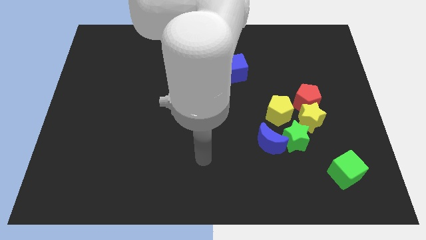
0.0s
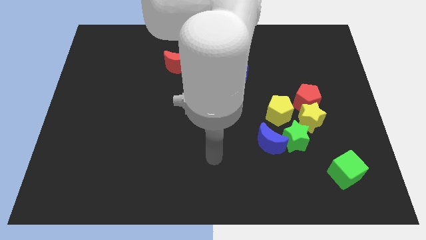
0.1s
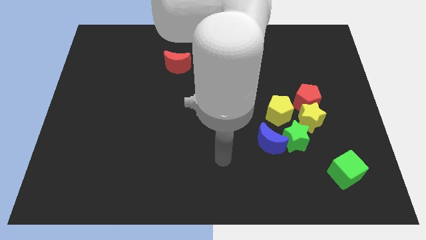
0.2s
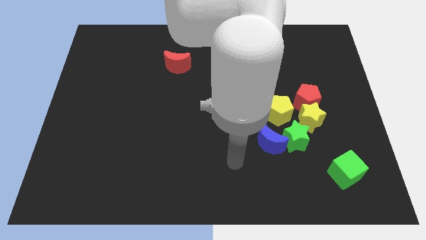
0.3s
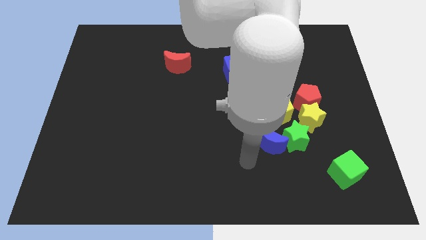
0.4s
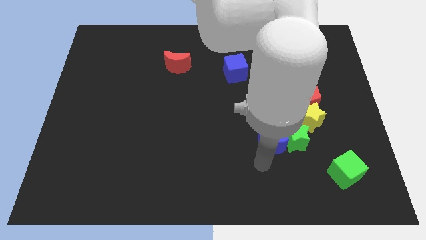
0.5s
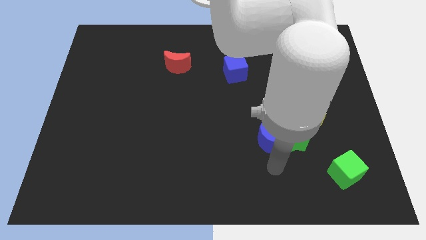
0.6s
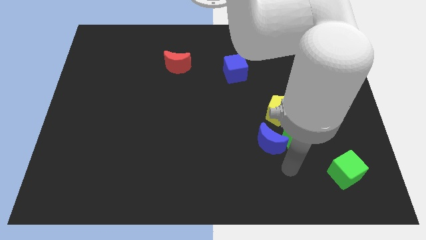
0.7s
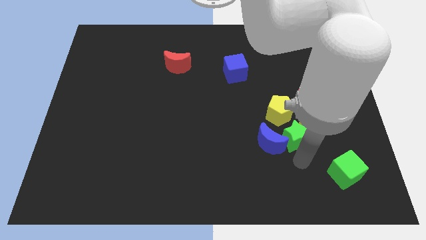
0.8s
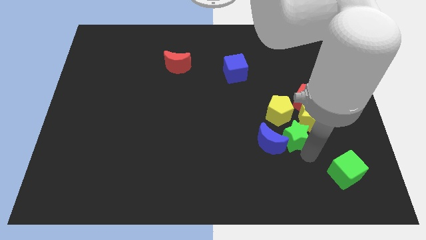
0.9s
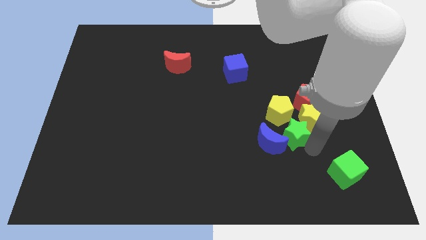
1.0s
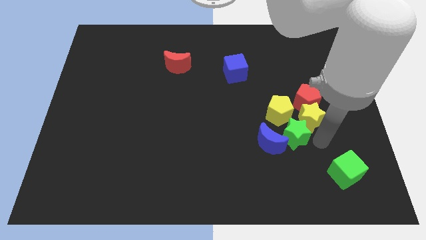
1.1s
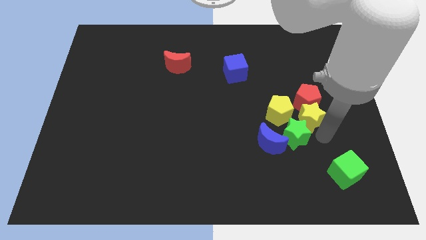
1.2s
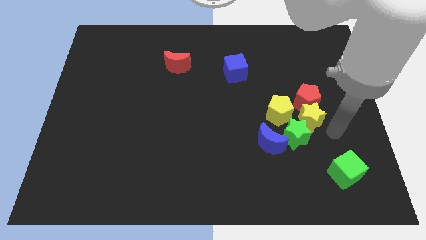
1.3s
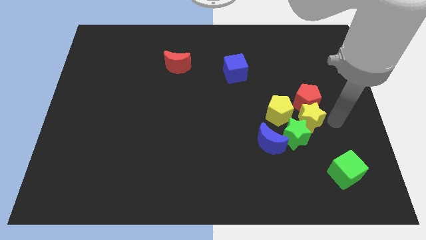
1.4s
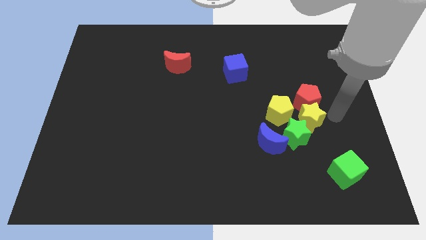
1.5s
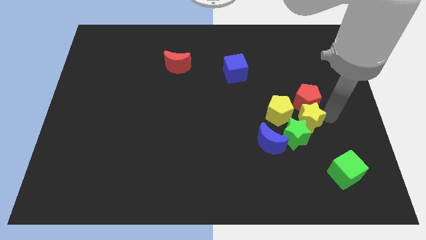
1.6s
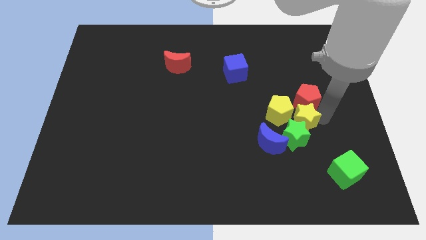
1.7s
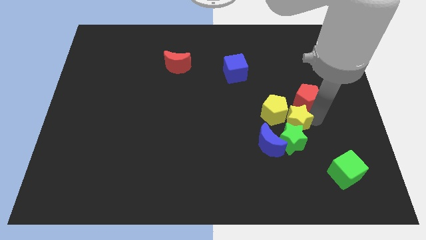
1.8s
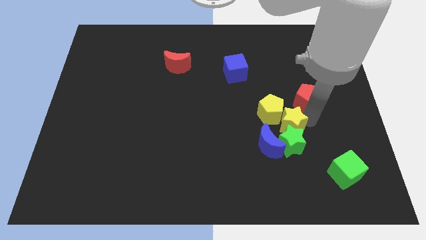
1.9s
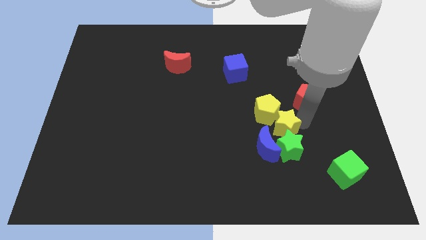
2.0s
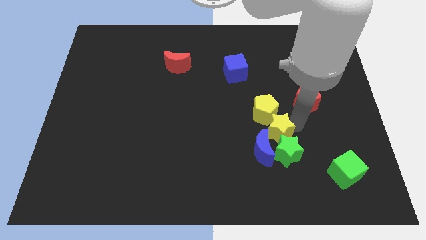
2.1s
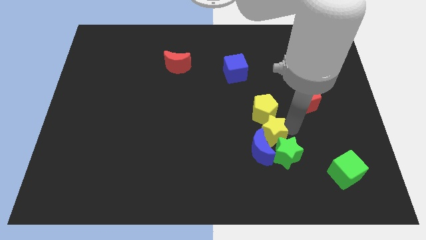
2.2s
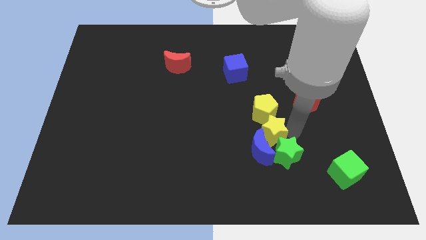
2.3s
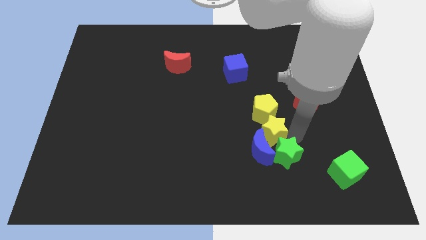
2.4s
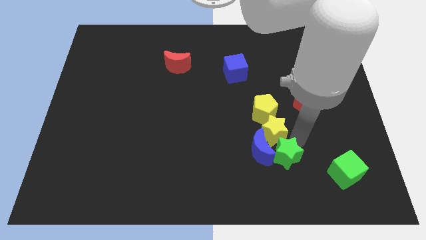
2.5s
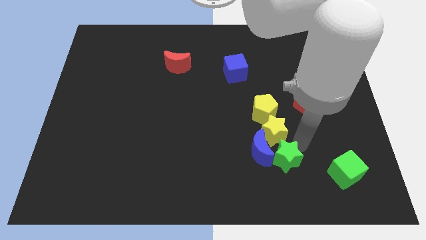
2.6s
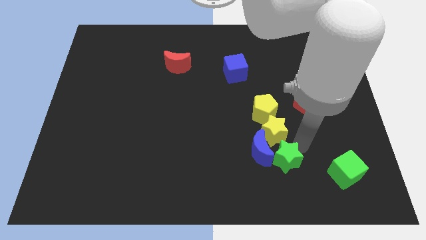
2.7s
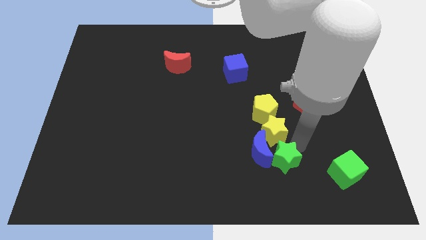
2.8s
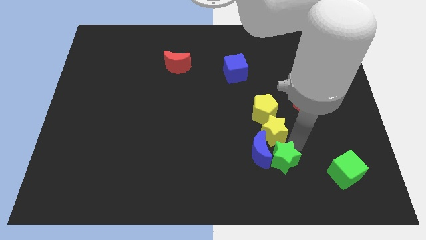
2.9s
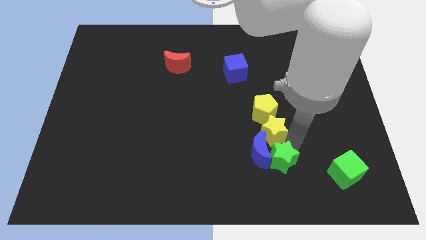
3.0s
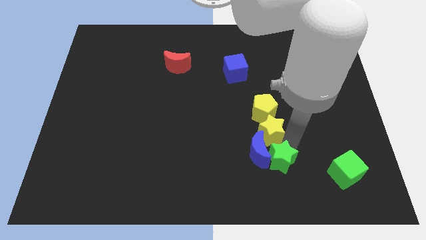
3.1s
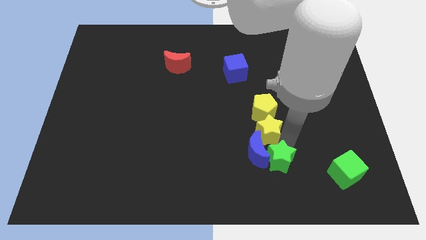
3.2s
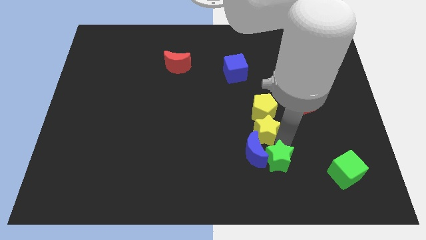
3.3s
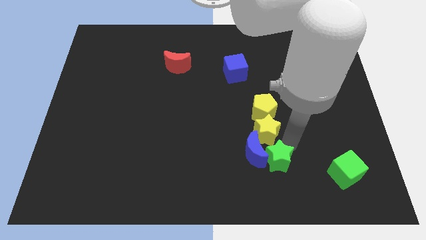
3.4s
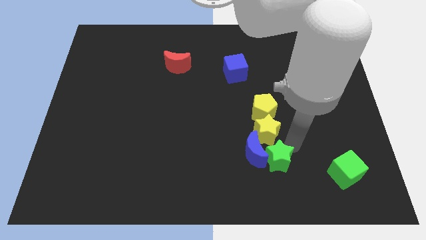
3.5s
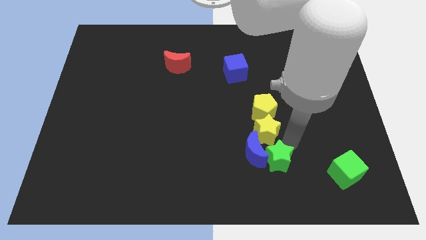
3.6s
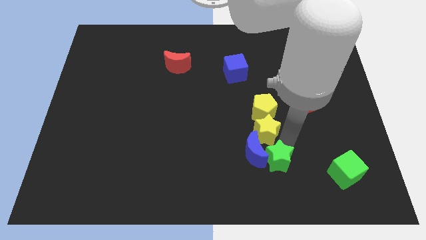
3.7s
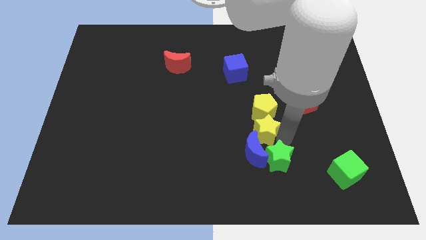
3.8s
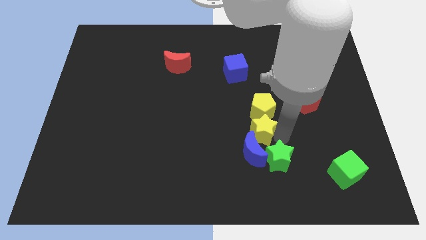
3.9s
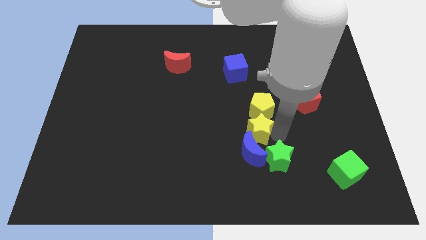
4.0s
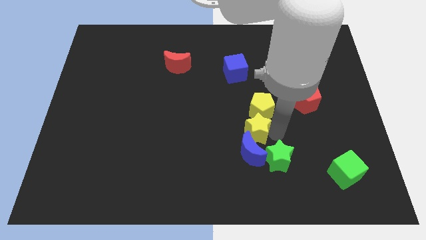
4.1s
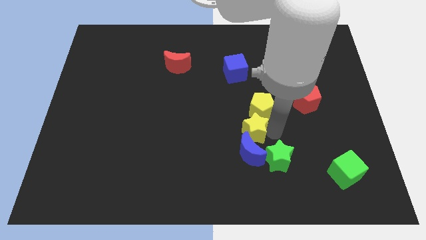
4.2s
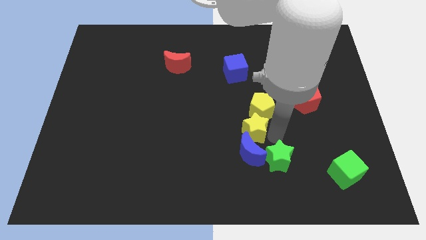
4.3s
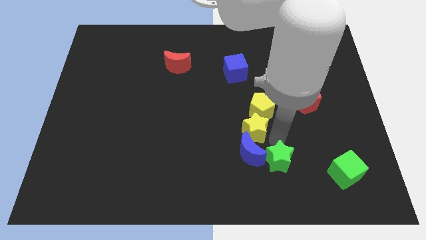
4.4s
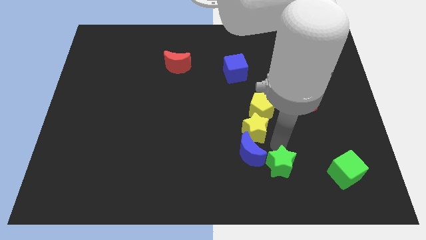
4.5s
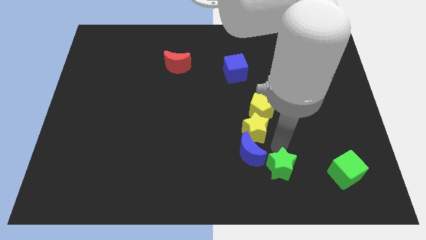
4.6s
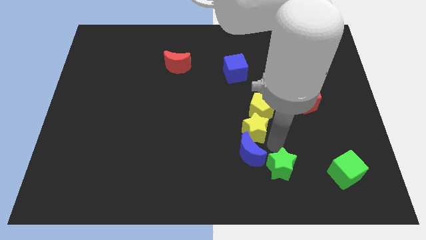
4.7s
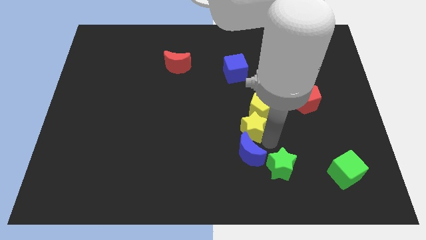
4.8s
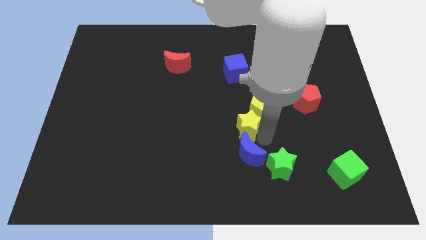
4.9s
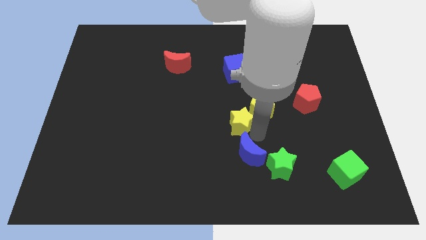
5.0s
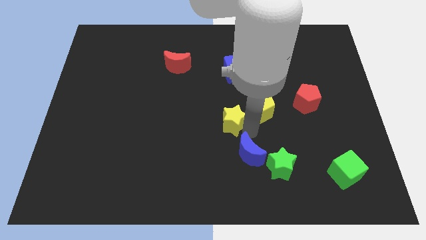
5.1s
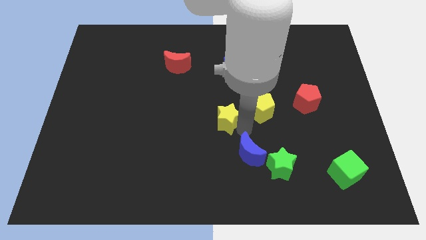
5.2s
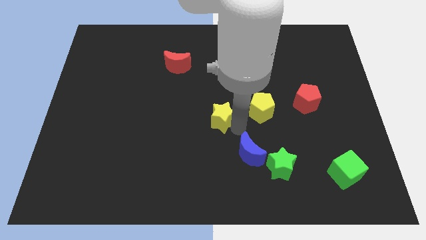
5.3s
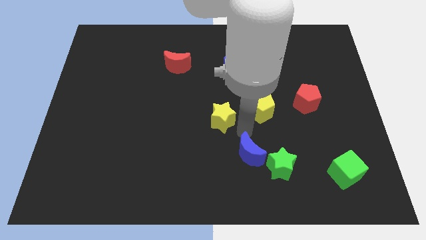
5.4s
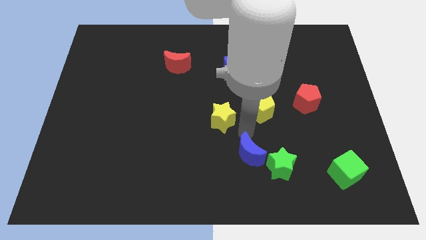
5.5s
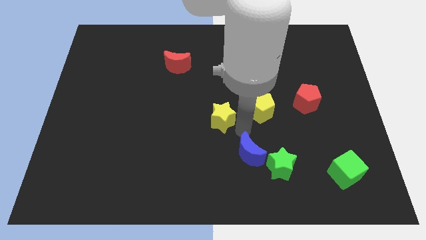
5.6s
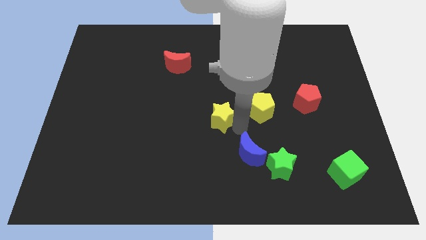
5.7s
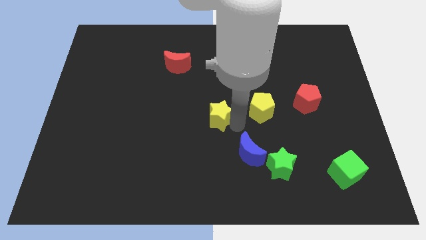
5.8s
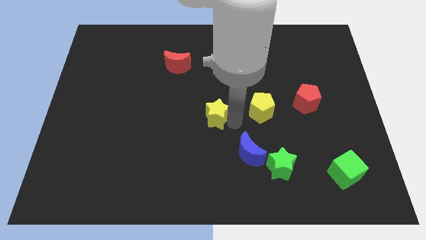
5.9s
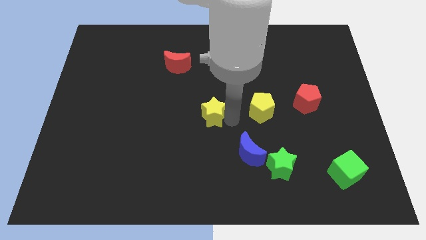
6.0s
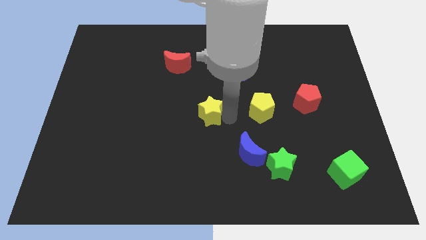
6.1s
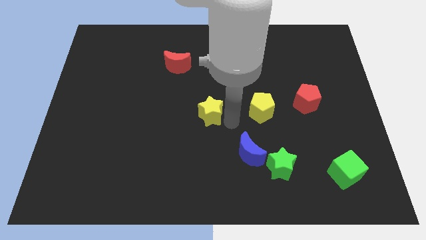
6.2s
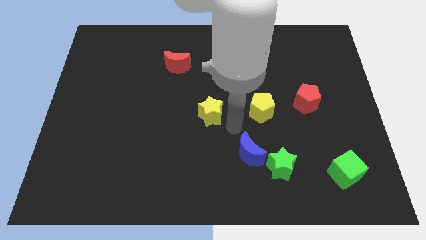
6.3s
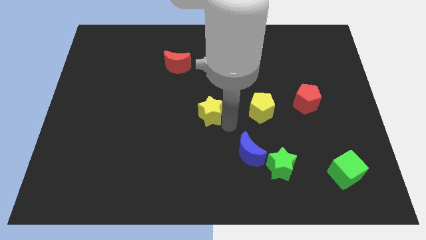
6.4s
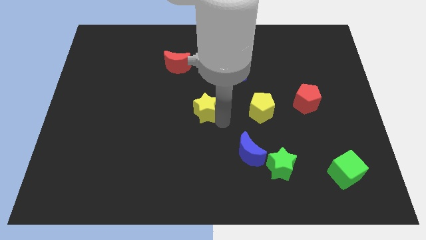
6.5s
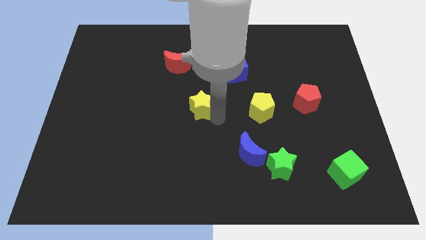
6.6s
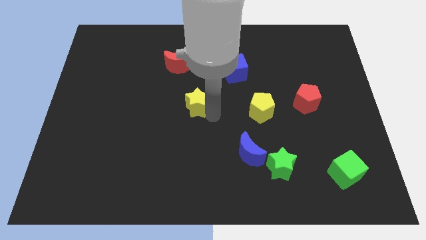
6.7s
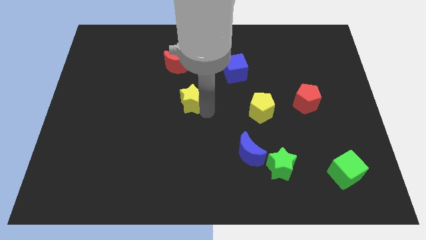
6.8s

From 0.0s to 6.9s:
push the yellow star to the bottom side of the red moon

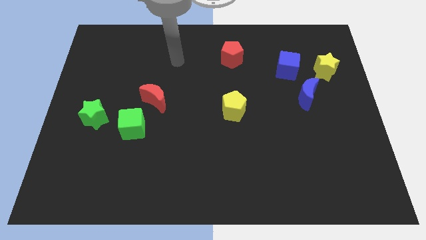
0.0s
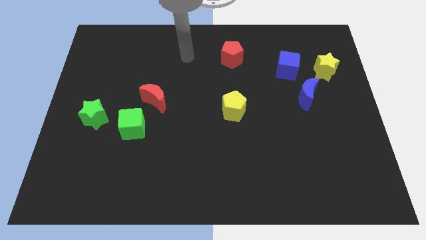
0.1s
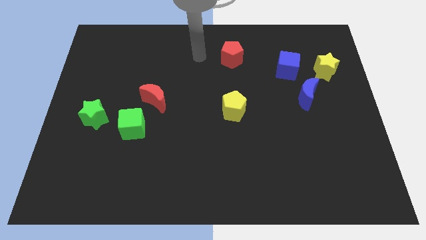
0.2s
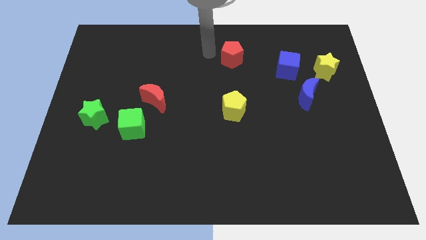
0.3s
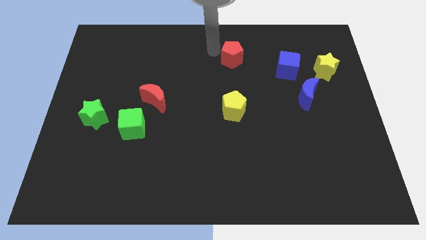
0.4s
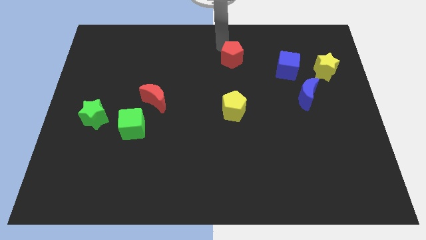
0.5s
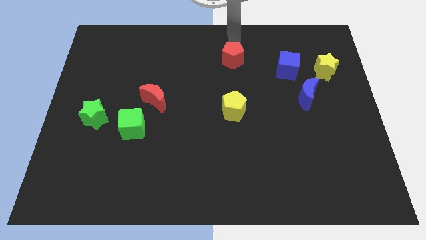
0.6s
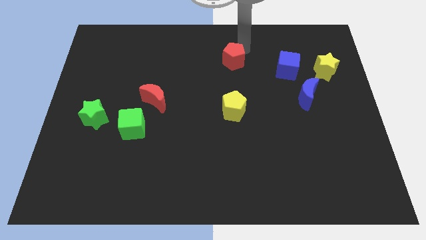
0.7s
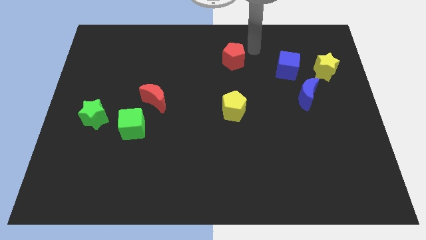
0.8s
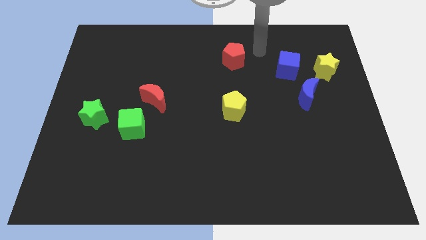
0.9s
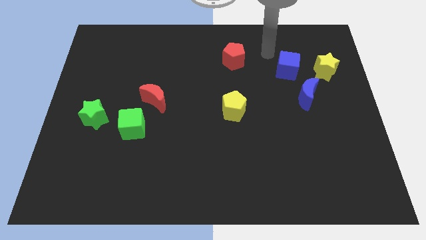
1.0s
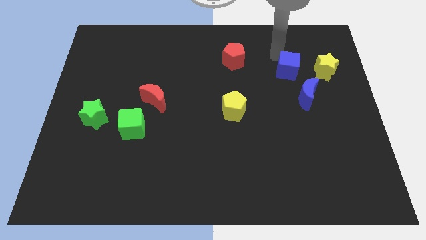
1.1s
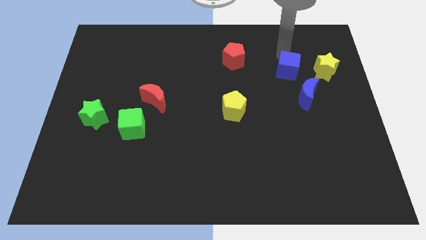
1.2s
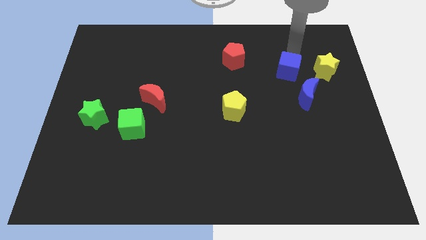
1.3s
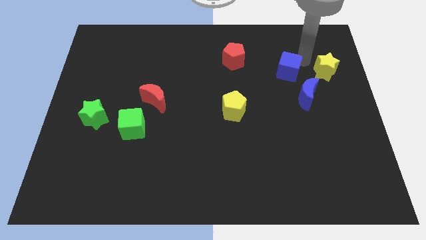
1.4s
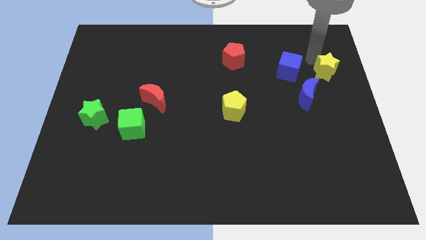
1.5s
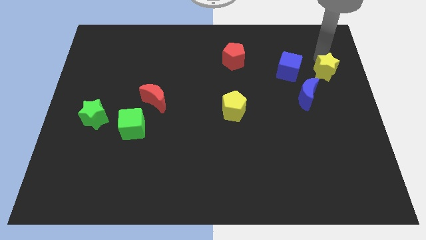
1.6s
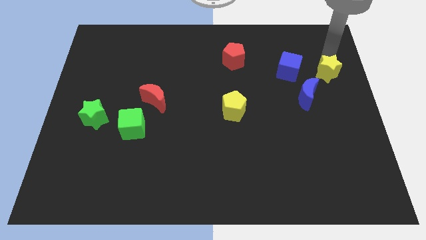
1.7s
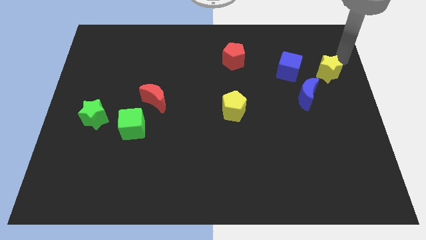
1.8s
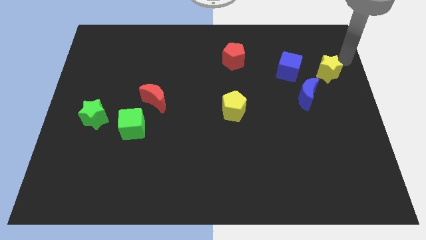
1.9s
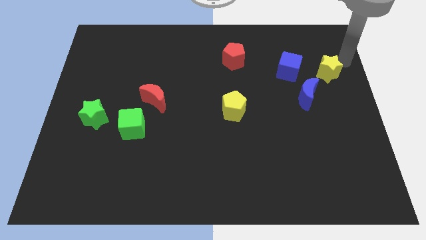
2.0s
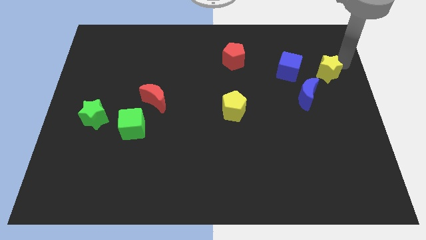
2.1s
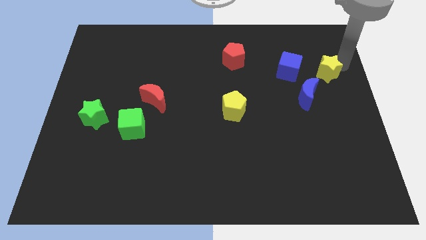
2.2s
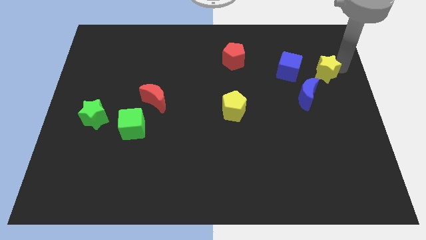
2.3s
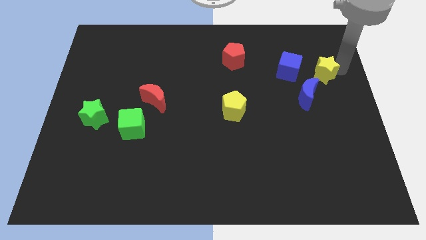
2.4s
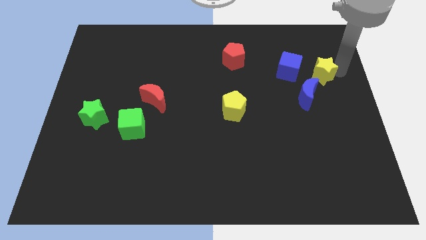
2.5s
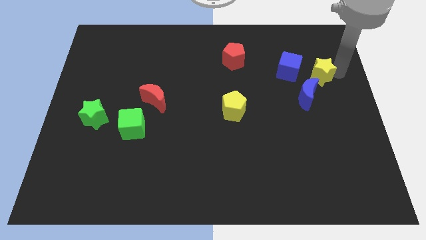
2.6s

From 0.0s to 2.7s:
push the yellow star to the bottom right side of the blue cube
